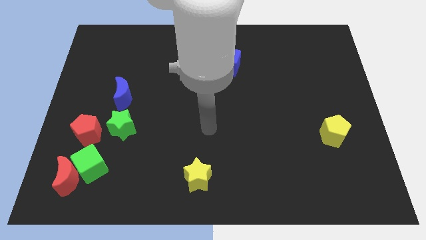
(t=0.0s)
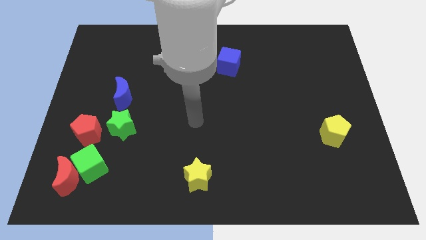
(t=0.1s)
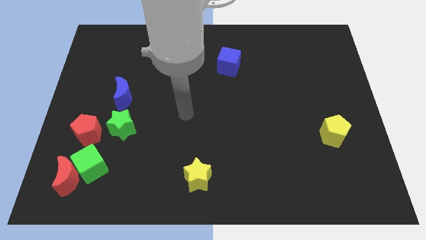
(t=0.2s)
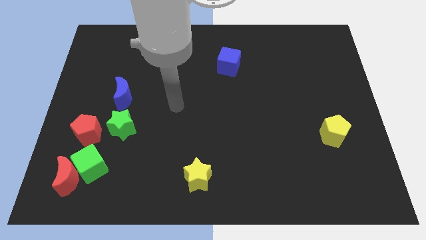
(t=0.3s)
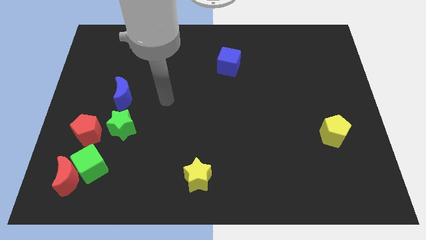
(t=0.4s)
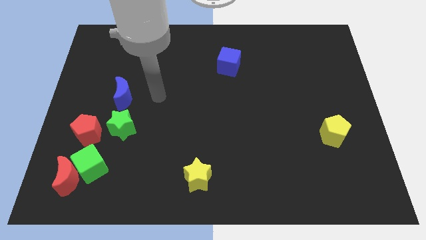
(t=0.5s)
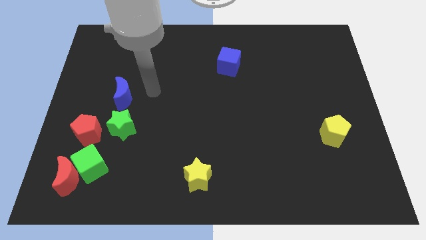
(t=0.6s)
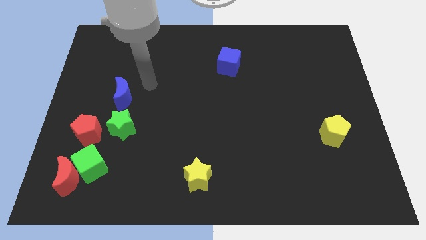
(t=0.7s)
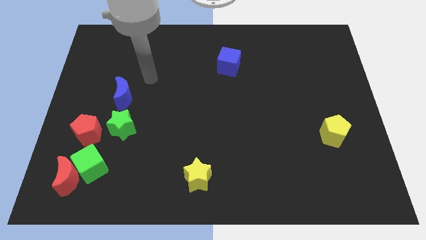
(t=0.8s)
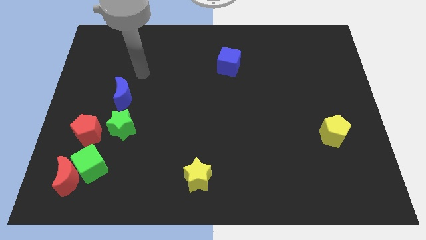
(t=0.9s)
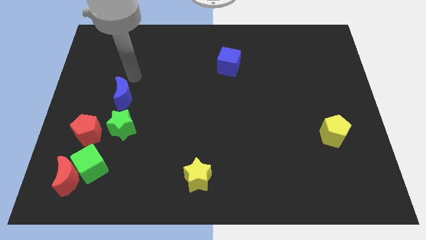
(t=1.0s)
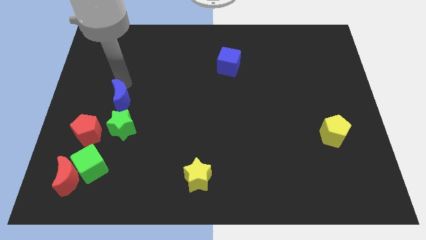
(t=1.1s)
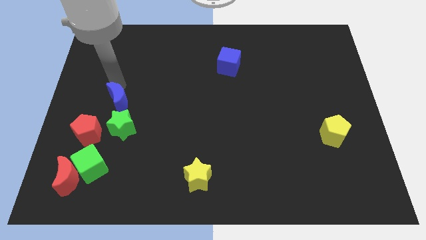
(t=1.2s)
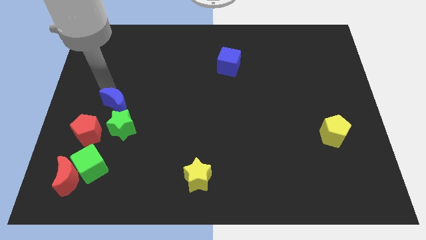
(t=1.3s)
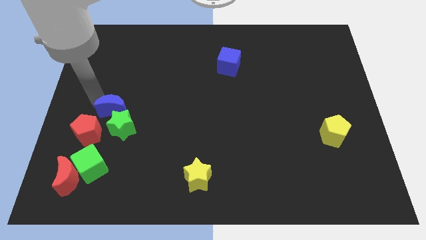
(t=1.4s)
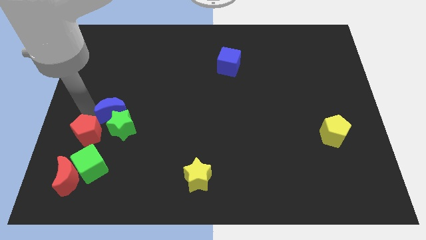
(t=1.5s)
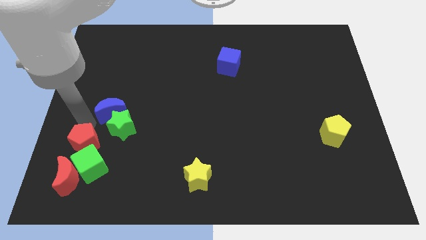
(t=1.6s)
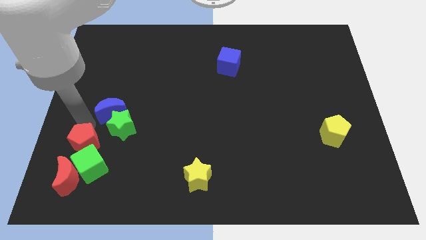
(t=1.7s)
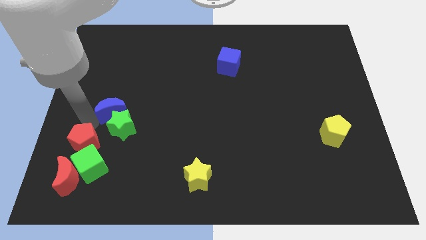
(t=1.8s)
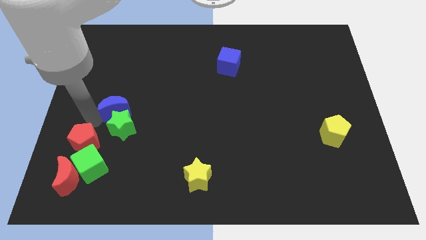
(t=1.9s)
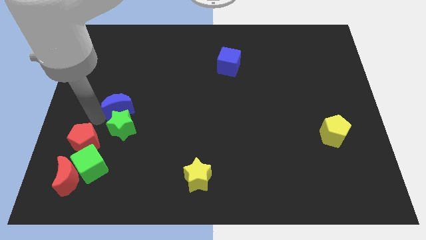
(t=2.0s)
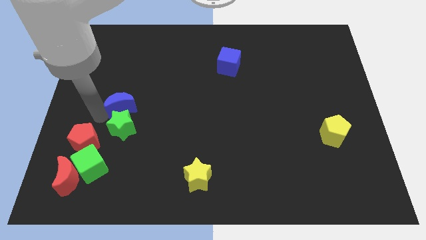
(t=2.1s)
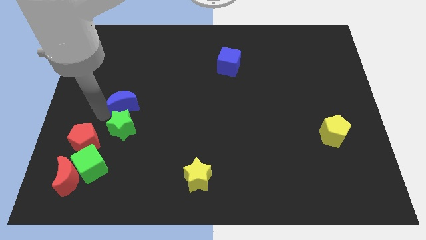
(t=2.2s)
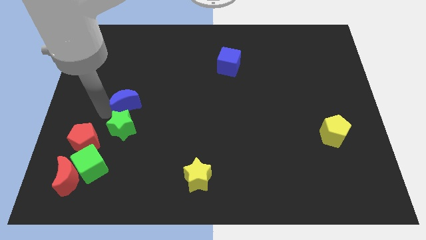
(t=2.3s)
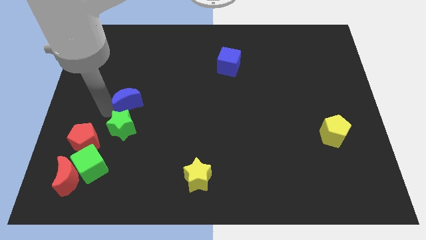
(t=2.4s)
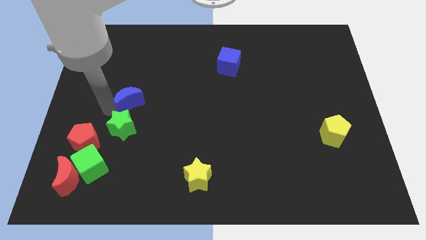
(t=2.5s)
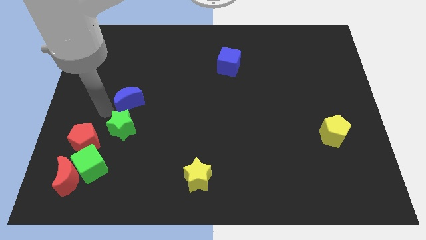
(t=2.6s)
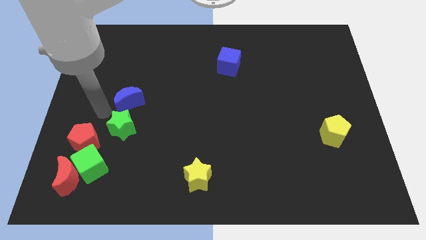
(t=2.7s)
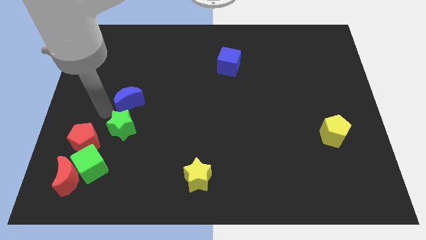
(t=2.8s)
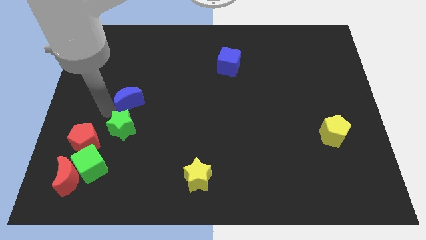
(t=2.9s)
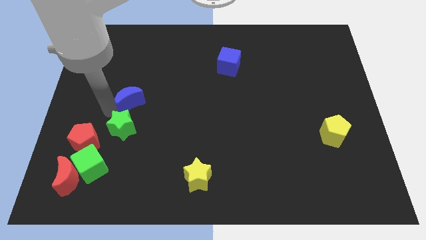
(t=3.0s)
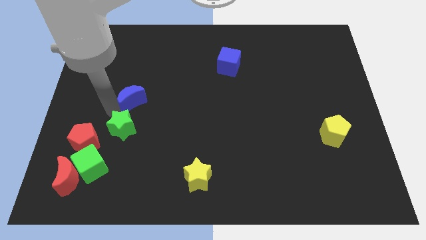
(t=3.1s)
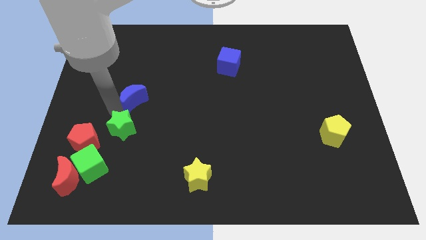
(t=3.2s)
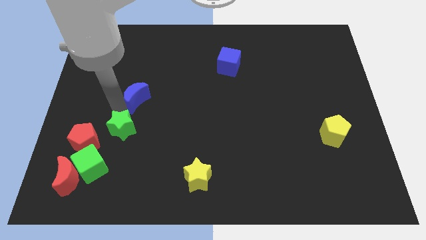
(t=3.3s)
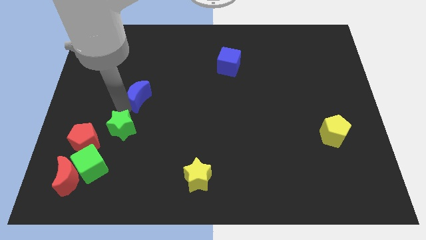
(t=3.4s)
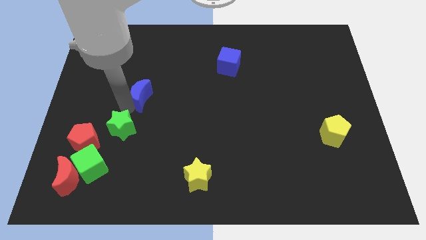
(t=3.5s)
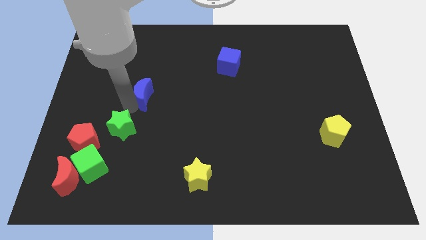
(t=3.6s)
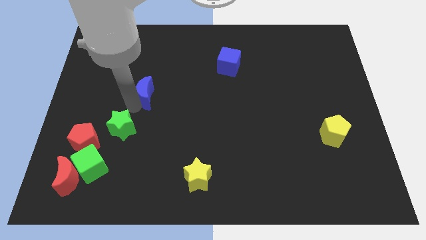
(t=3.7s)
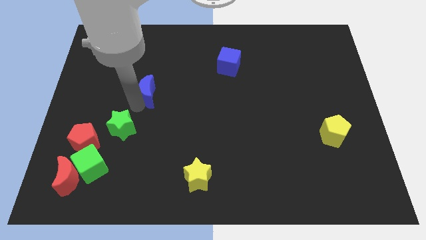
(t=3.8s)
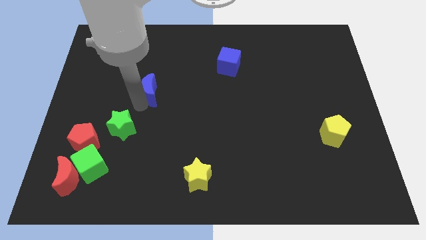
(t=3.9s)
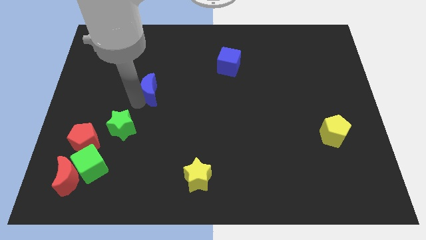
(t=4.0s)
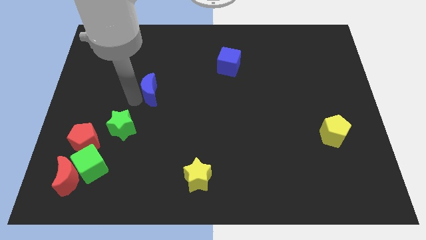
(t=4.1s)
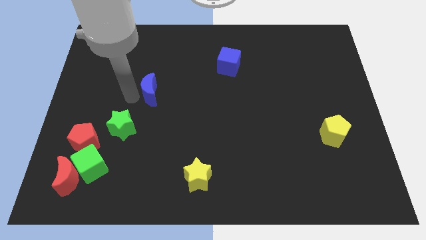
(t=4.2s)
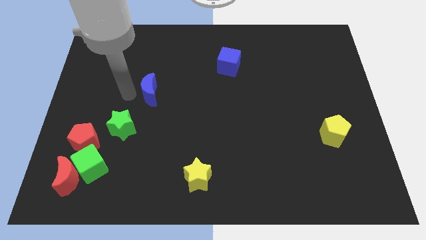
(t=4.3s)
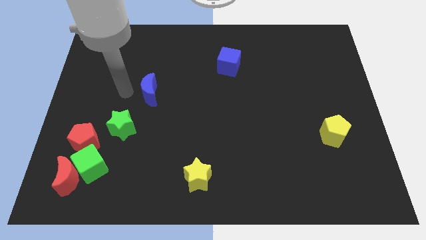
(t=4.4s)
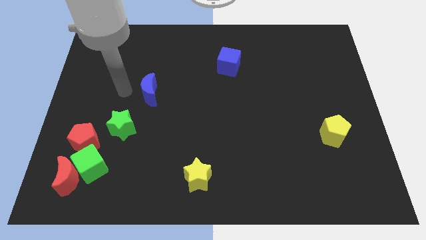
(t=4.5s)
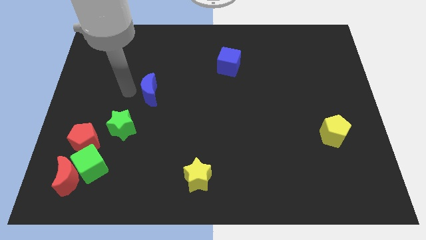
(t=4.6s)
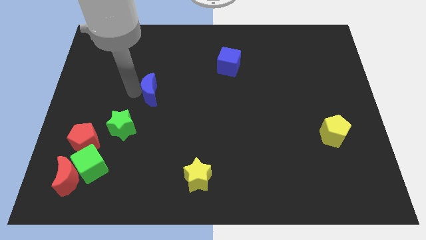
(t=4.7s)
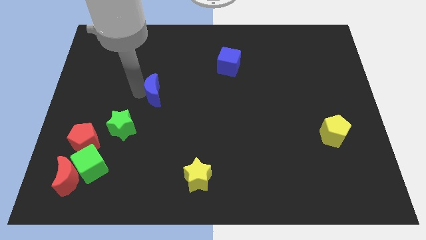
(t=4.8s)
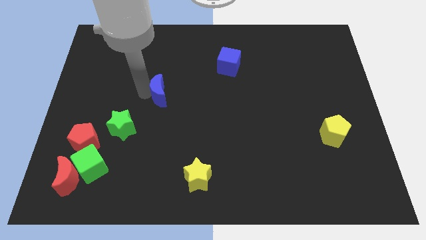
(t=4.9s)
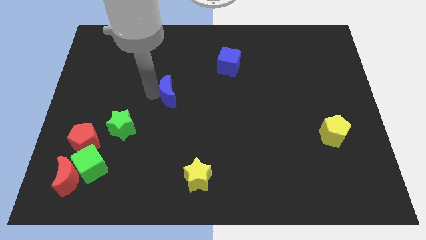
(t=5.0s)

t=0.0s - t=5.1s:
push the blue moon to the center

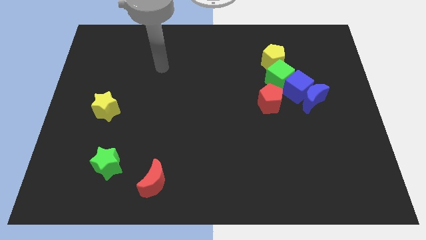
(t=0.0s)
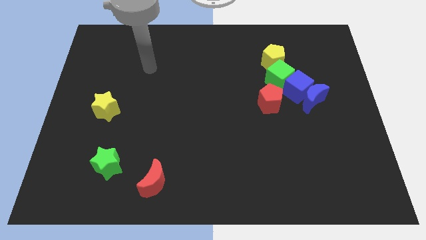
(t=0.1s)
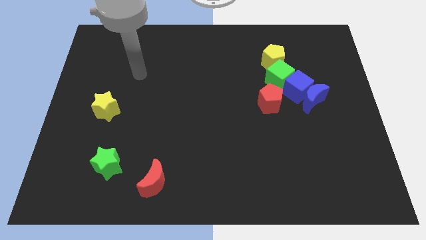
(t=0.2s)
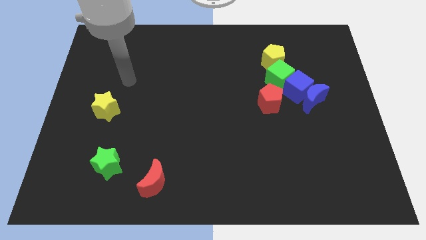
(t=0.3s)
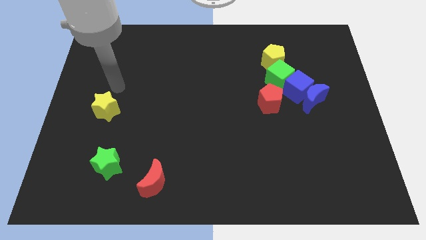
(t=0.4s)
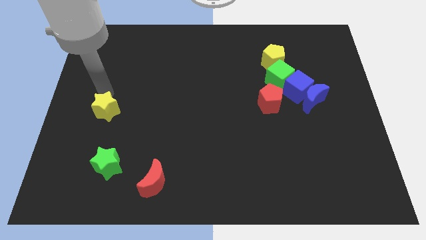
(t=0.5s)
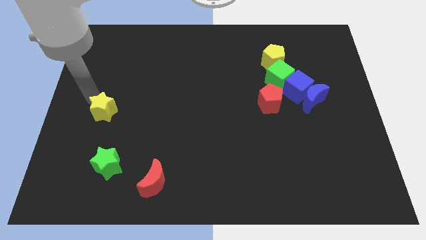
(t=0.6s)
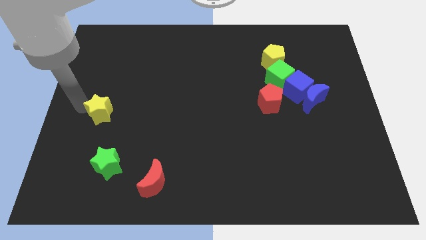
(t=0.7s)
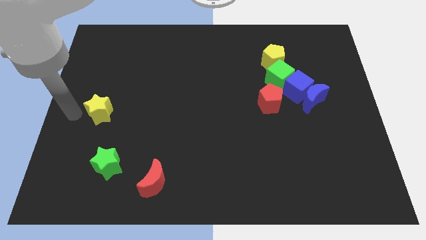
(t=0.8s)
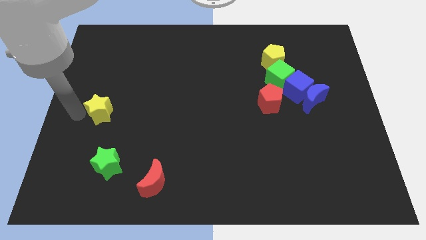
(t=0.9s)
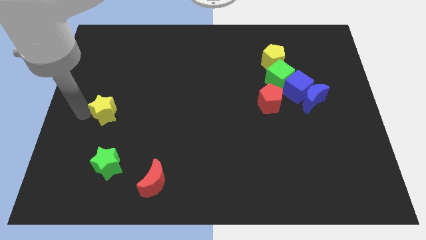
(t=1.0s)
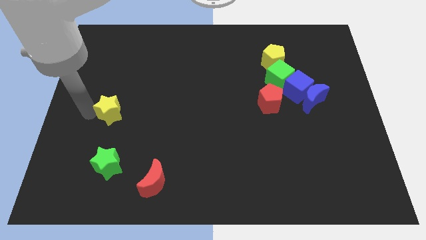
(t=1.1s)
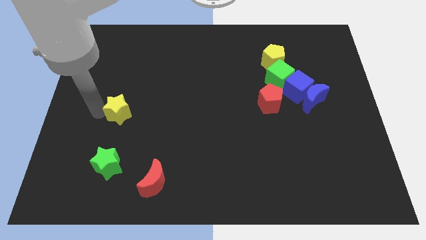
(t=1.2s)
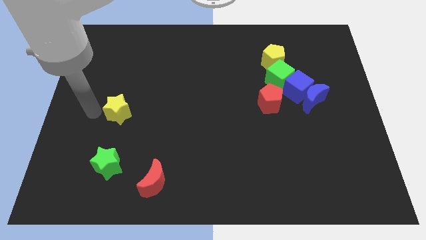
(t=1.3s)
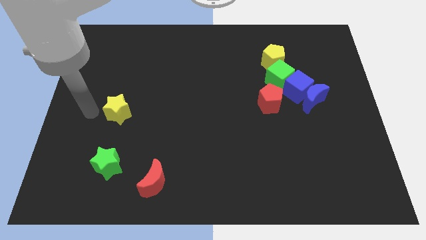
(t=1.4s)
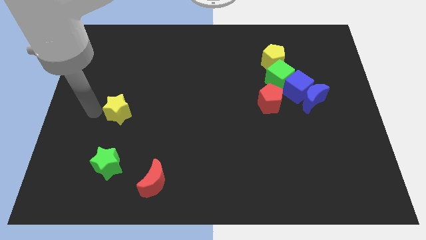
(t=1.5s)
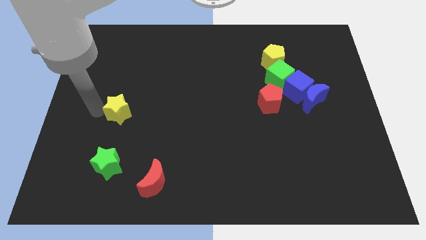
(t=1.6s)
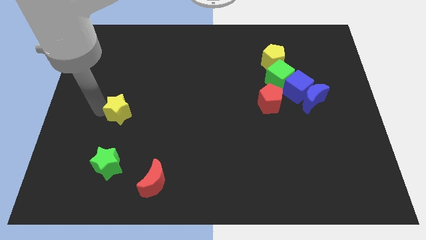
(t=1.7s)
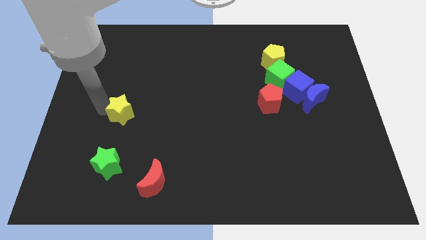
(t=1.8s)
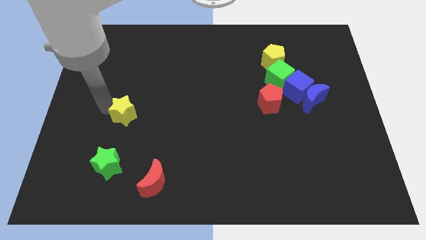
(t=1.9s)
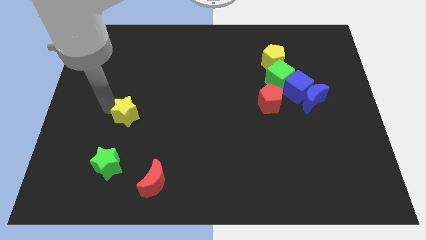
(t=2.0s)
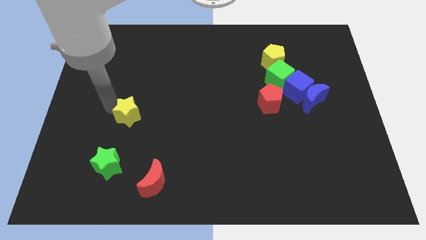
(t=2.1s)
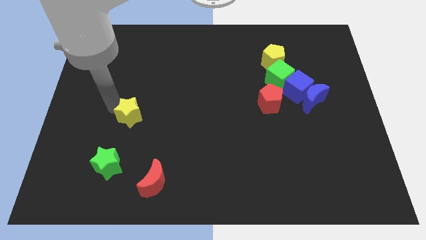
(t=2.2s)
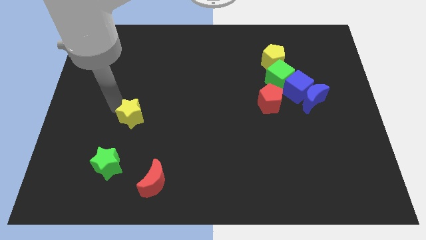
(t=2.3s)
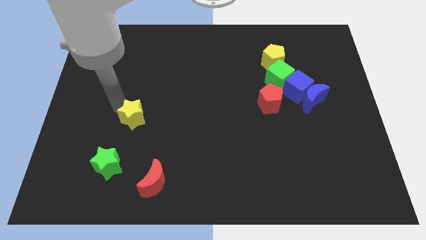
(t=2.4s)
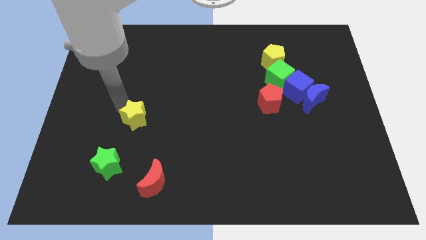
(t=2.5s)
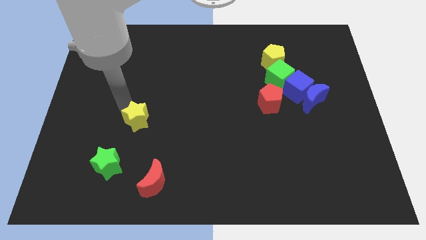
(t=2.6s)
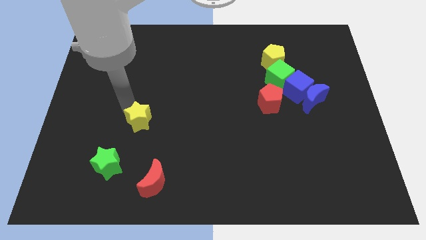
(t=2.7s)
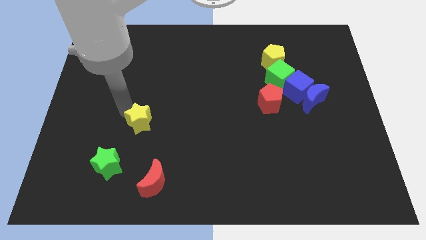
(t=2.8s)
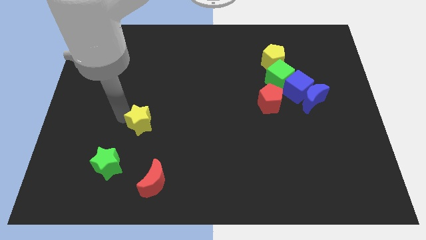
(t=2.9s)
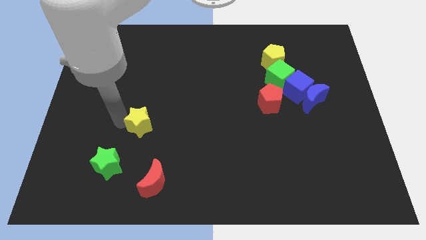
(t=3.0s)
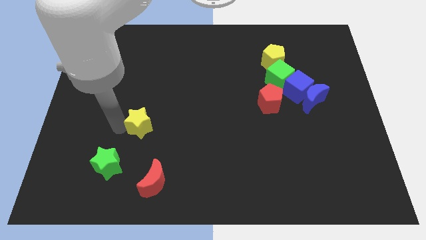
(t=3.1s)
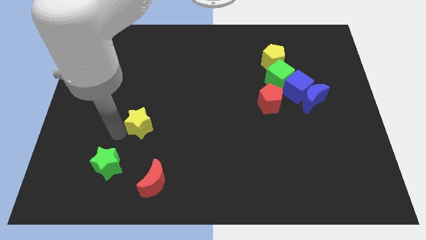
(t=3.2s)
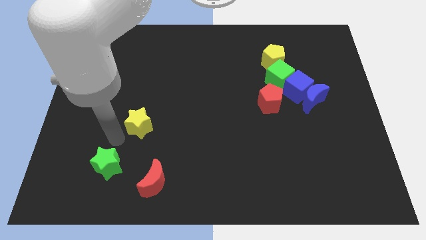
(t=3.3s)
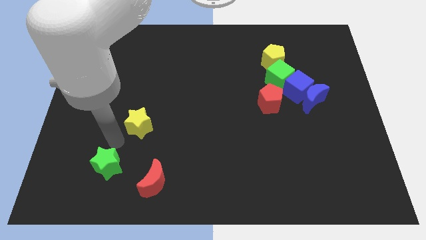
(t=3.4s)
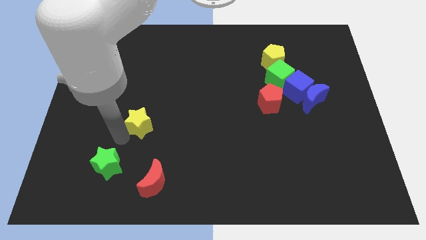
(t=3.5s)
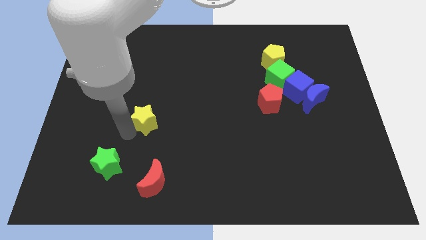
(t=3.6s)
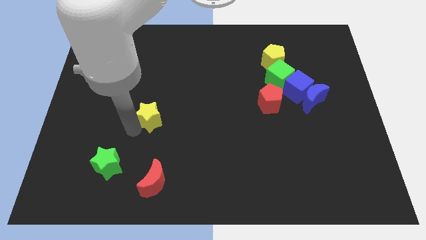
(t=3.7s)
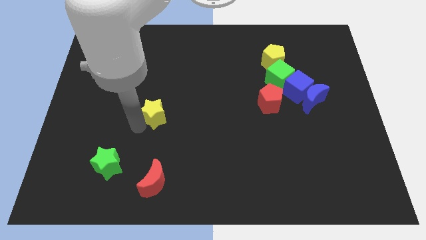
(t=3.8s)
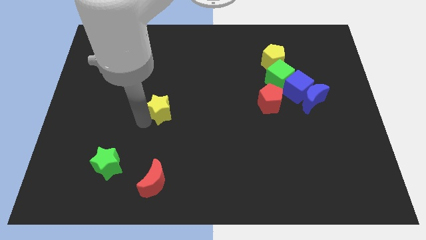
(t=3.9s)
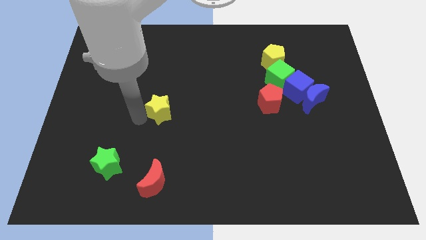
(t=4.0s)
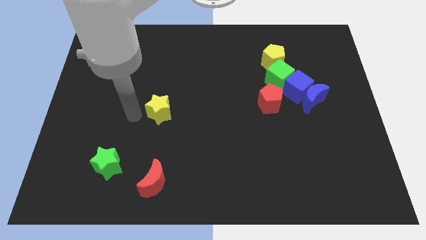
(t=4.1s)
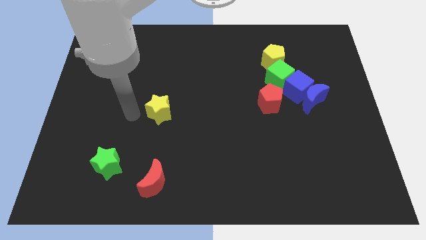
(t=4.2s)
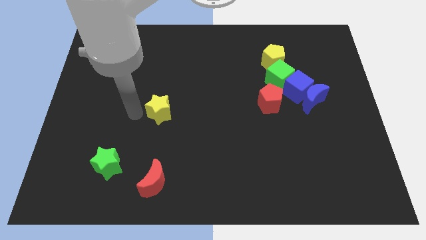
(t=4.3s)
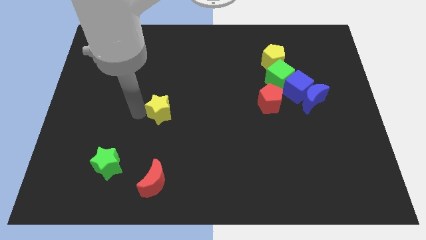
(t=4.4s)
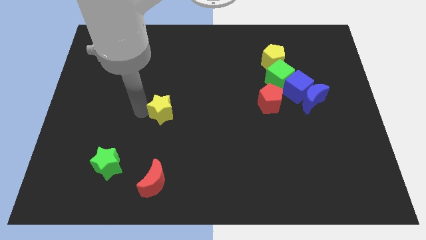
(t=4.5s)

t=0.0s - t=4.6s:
slide the yellow star to the center of the board
